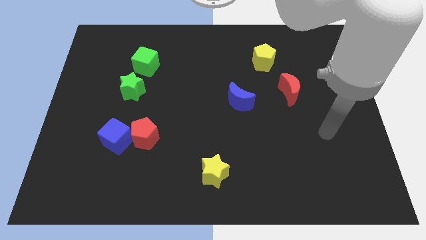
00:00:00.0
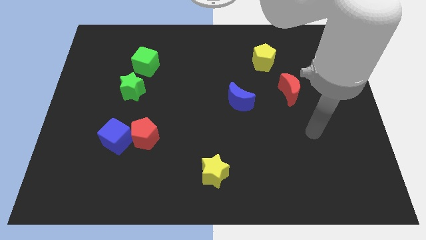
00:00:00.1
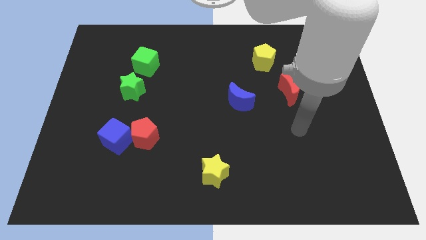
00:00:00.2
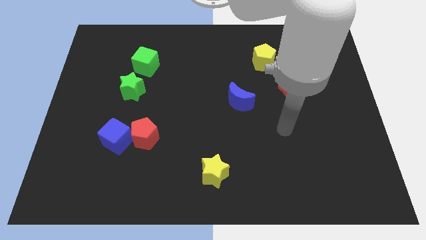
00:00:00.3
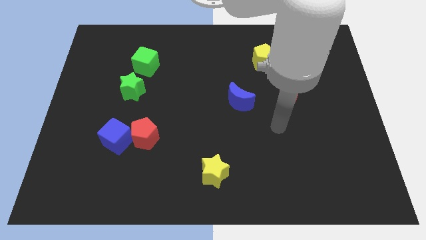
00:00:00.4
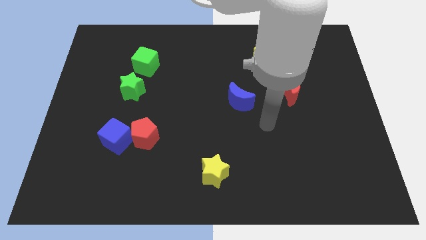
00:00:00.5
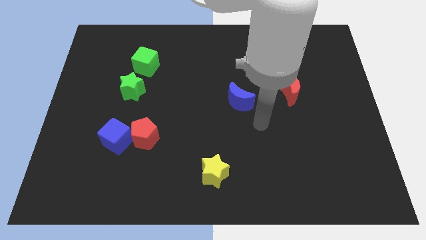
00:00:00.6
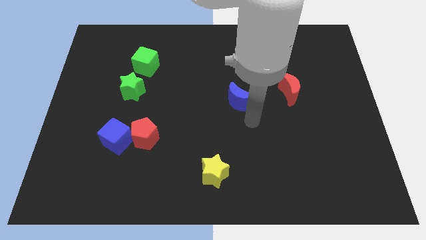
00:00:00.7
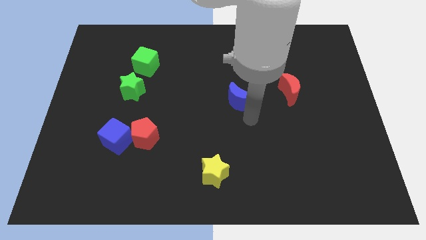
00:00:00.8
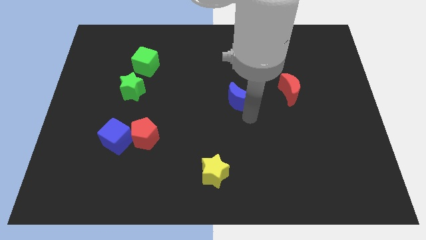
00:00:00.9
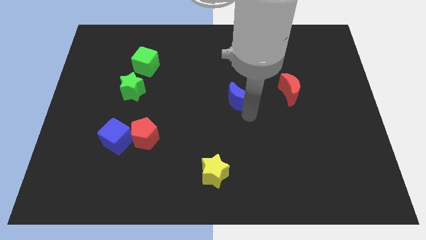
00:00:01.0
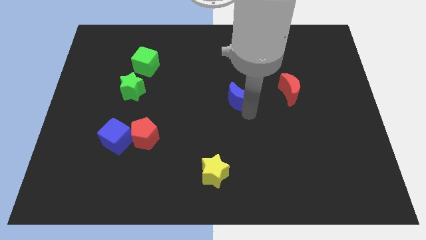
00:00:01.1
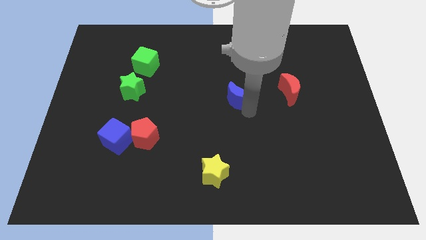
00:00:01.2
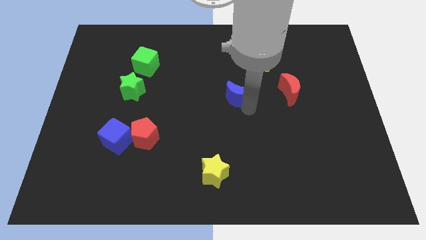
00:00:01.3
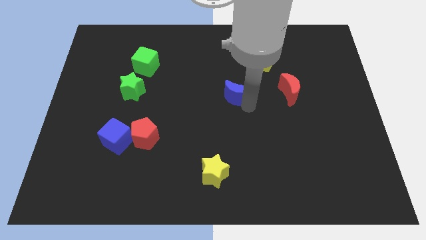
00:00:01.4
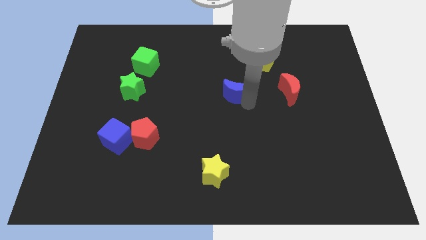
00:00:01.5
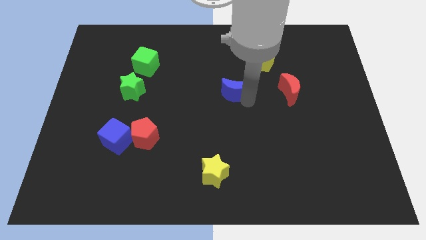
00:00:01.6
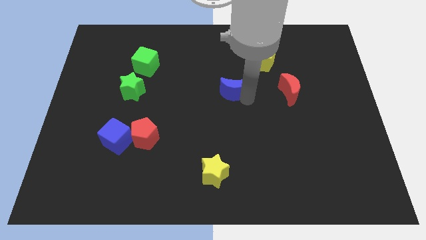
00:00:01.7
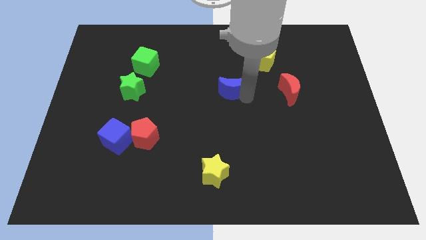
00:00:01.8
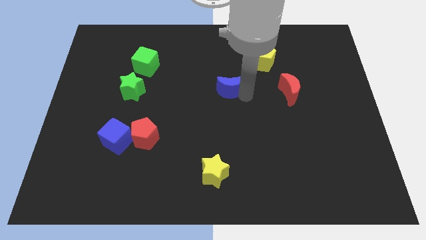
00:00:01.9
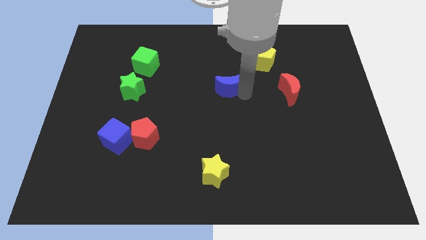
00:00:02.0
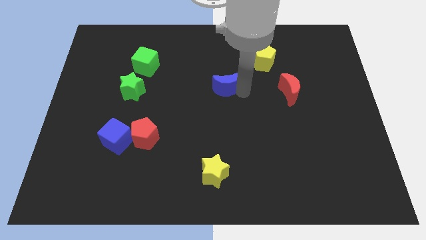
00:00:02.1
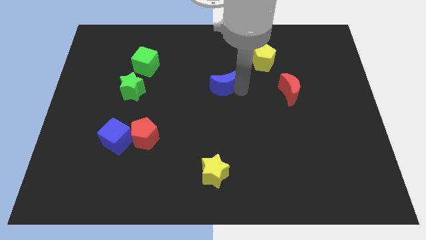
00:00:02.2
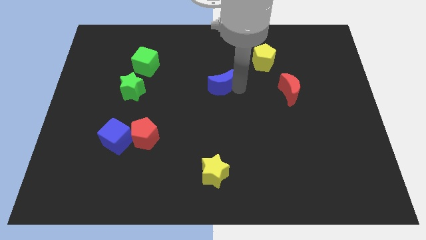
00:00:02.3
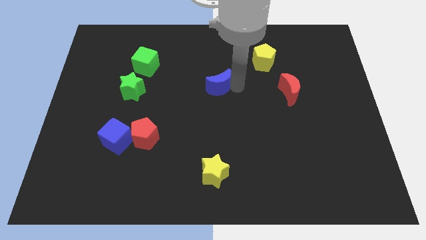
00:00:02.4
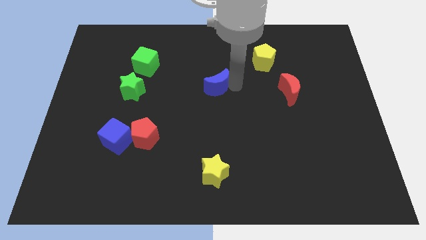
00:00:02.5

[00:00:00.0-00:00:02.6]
slightly push the blue moon diagonally upwards and left

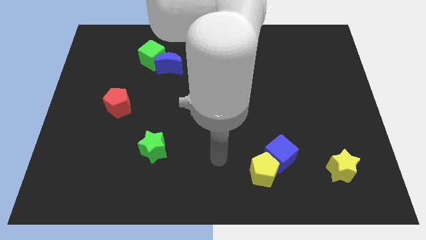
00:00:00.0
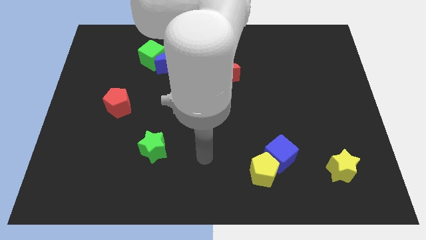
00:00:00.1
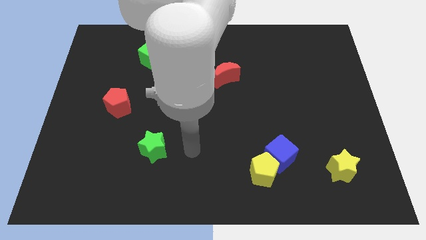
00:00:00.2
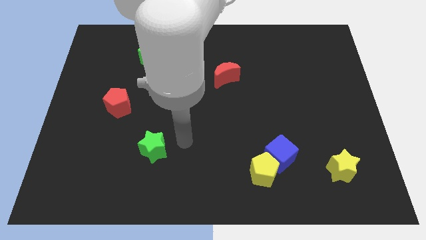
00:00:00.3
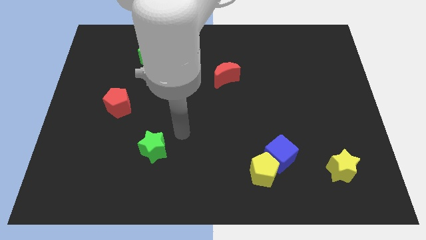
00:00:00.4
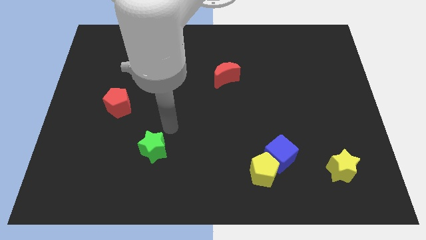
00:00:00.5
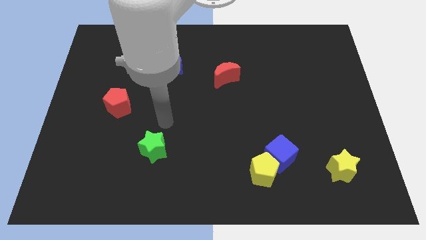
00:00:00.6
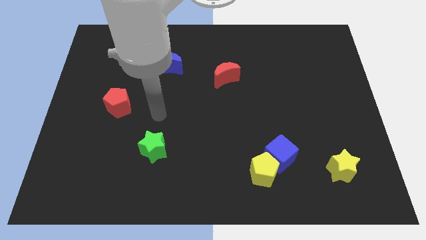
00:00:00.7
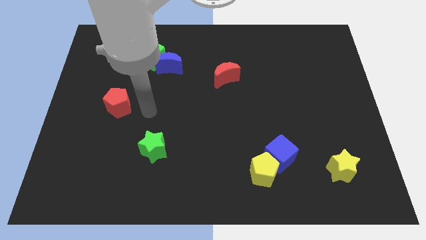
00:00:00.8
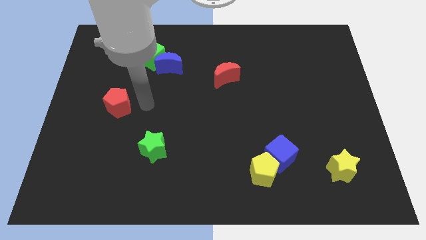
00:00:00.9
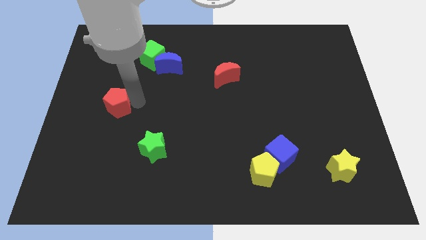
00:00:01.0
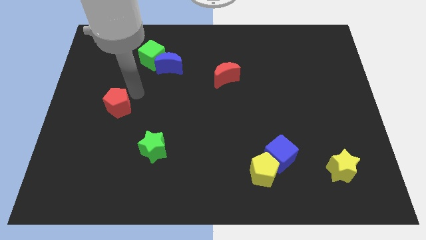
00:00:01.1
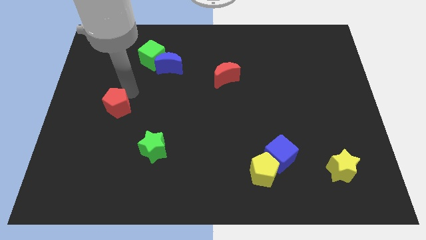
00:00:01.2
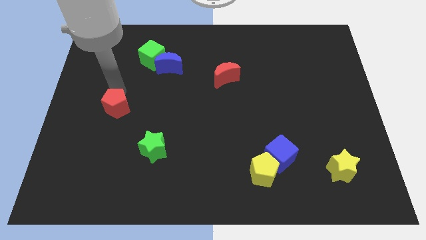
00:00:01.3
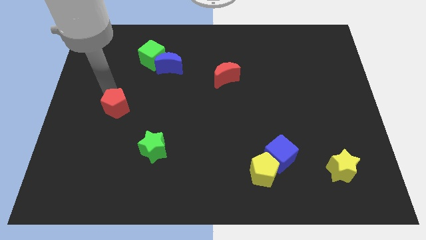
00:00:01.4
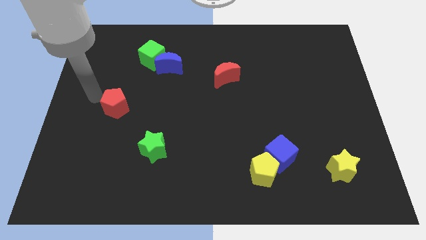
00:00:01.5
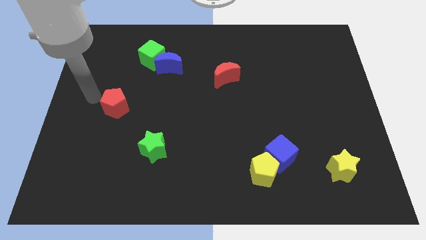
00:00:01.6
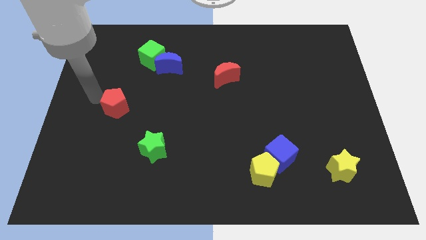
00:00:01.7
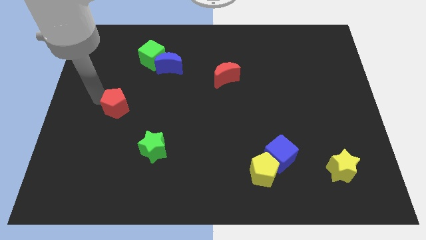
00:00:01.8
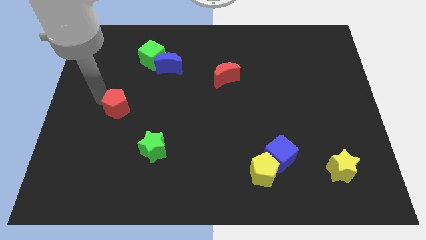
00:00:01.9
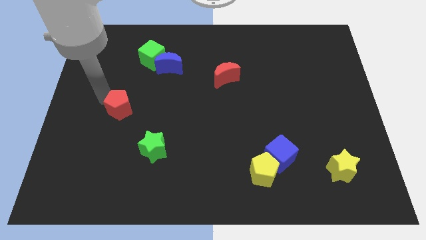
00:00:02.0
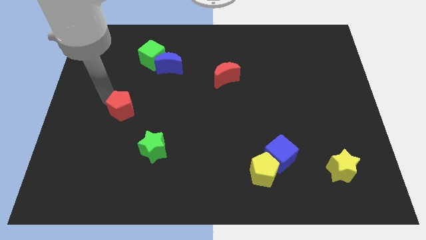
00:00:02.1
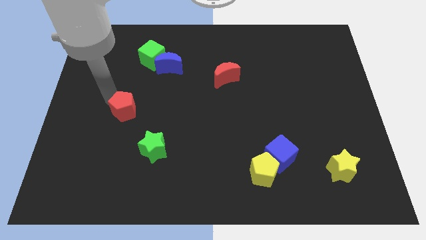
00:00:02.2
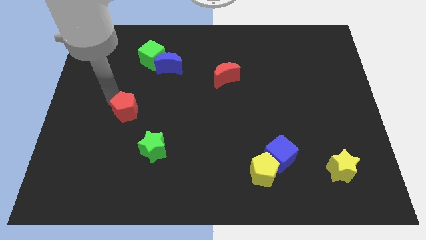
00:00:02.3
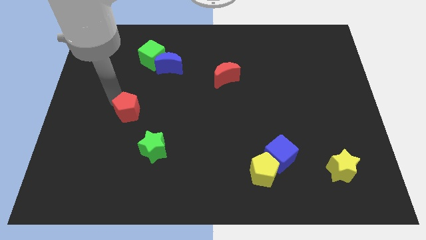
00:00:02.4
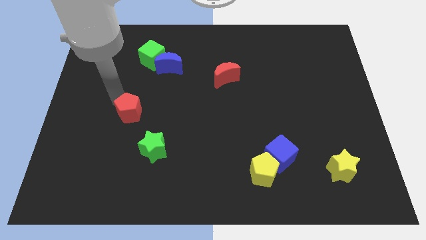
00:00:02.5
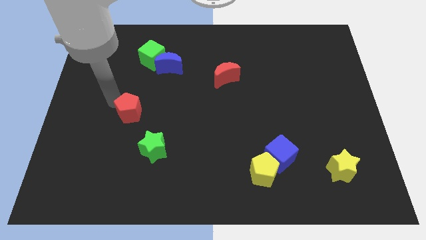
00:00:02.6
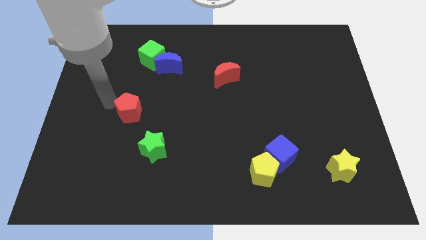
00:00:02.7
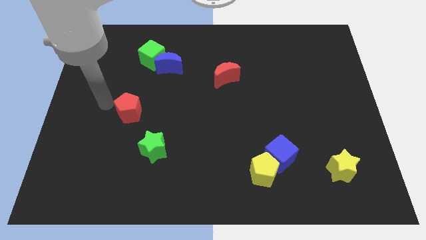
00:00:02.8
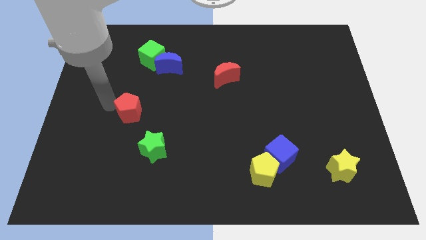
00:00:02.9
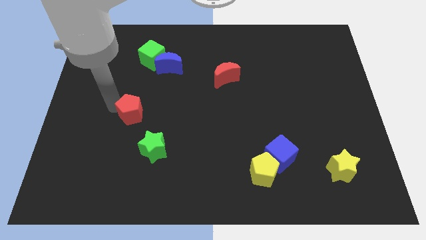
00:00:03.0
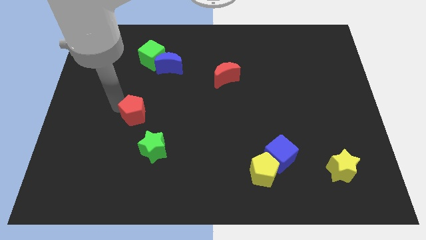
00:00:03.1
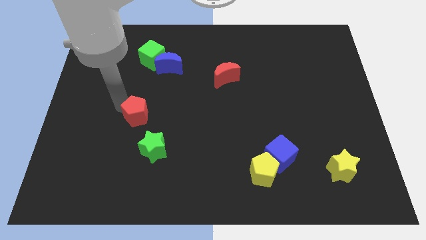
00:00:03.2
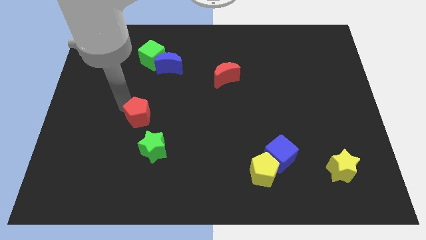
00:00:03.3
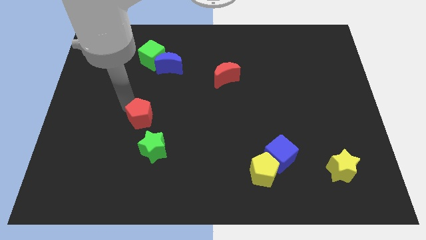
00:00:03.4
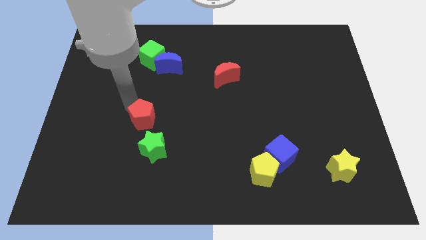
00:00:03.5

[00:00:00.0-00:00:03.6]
push the red pentagon slightly downwards and right diagonally

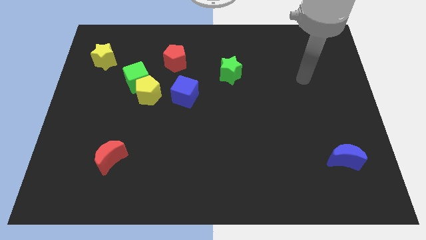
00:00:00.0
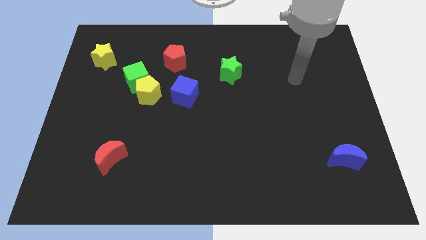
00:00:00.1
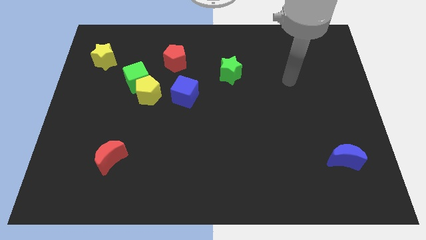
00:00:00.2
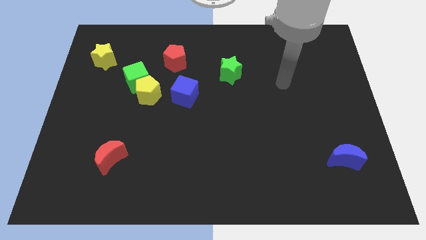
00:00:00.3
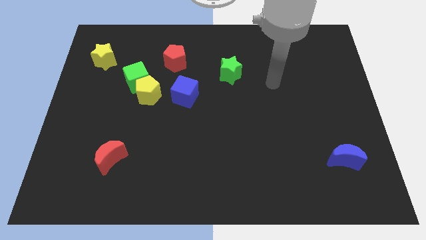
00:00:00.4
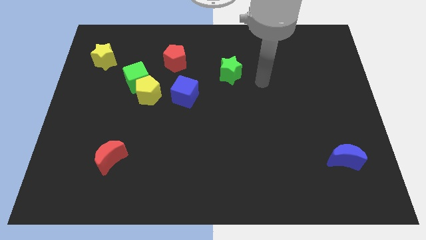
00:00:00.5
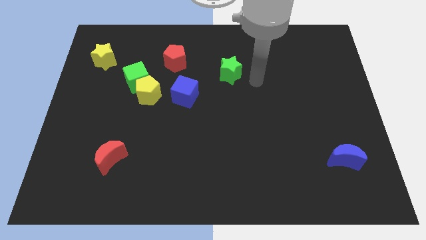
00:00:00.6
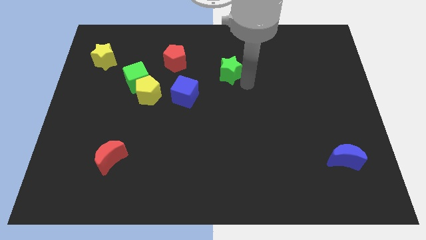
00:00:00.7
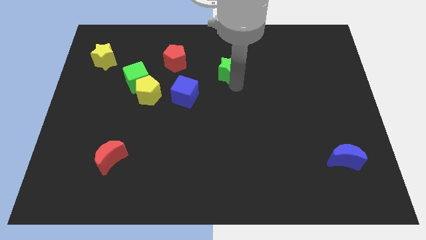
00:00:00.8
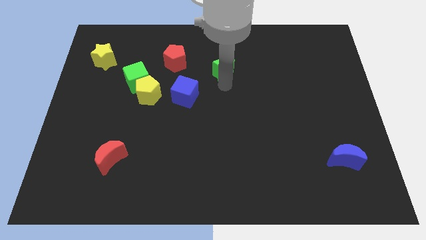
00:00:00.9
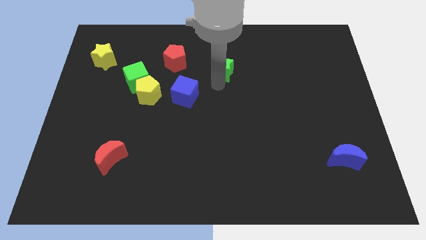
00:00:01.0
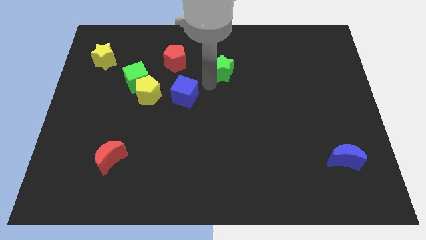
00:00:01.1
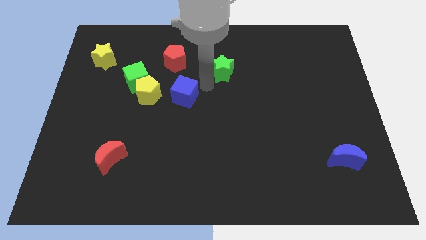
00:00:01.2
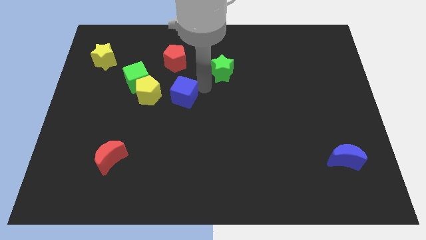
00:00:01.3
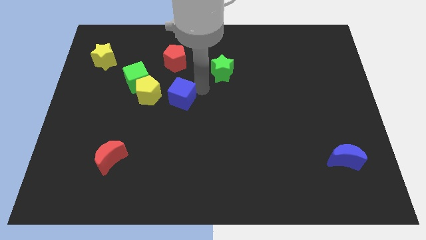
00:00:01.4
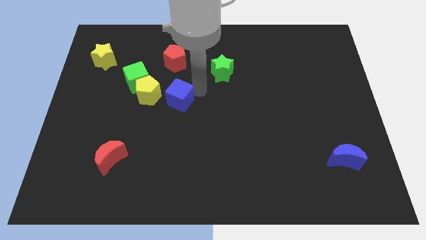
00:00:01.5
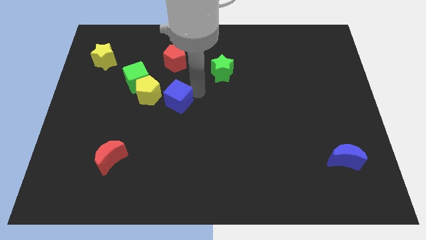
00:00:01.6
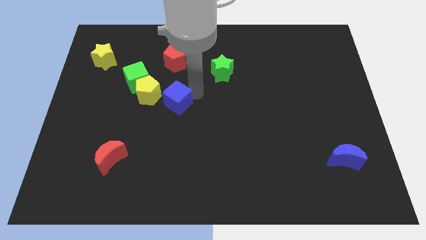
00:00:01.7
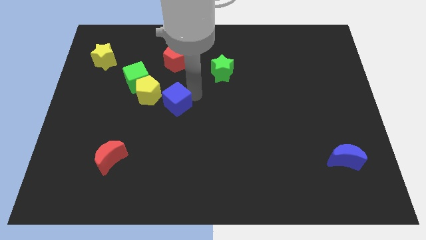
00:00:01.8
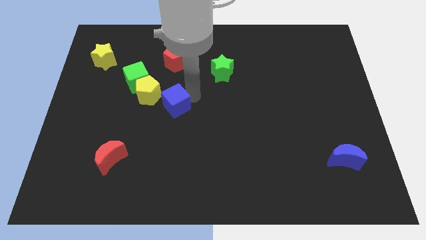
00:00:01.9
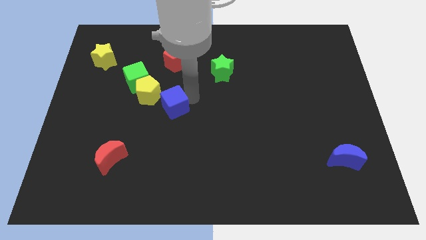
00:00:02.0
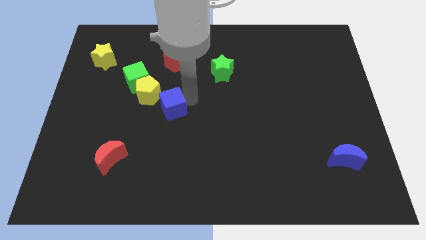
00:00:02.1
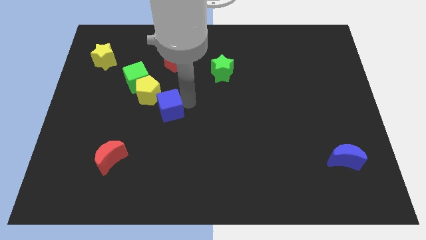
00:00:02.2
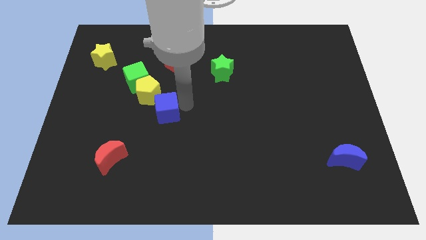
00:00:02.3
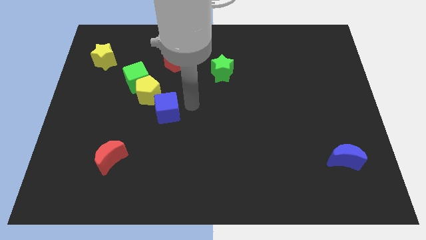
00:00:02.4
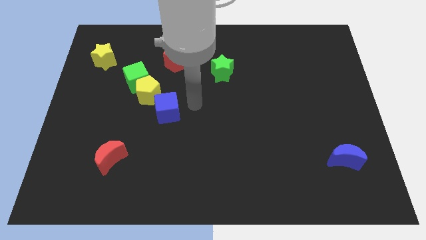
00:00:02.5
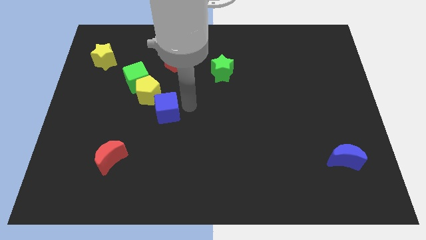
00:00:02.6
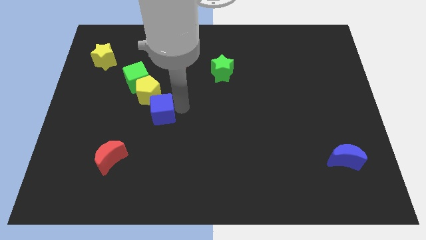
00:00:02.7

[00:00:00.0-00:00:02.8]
move the blue cube a little bit diagonally downwards and to the left
